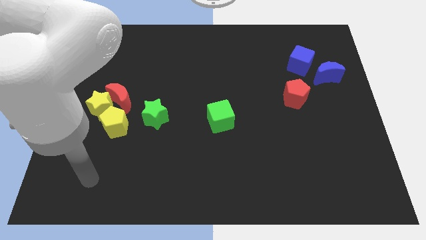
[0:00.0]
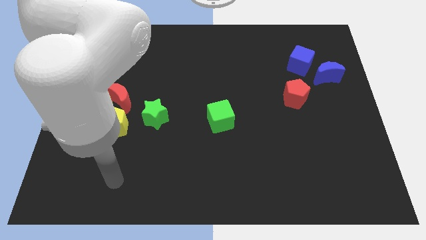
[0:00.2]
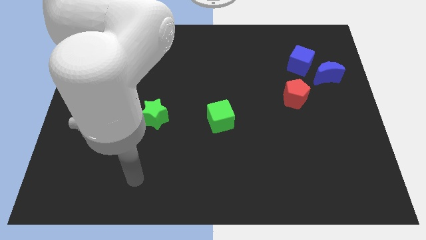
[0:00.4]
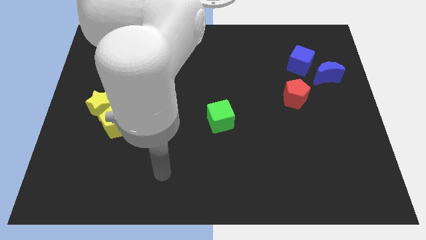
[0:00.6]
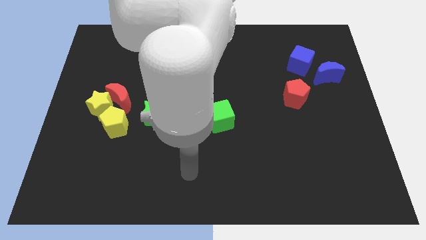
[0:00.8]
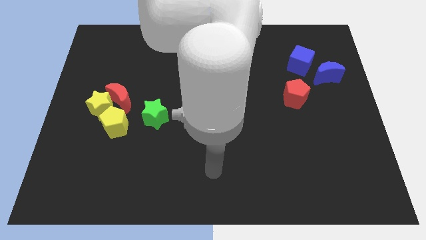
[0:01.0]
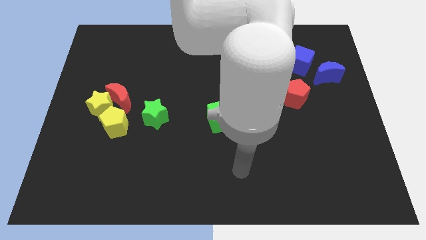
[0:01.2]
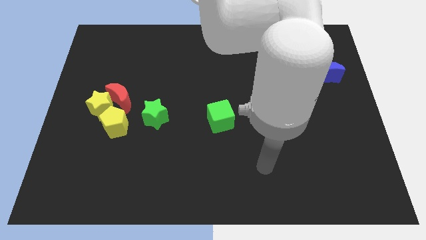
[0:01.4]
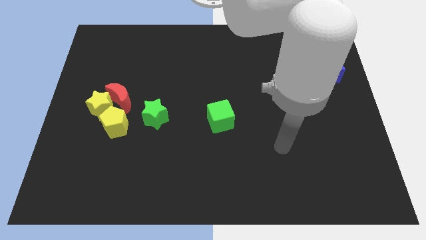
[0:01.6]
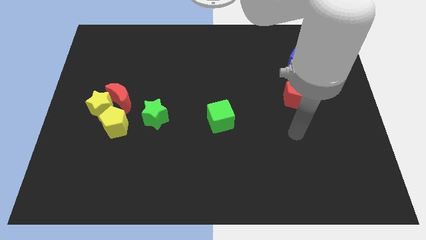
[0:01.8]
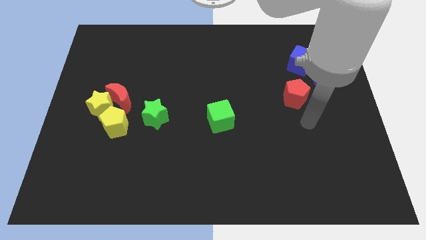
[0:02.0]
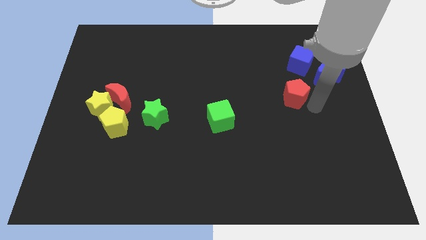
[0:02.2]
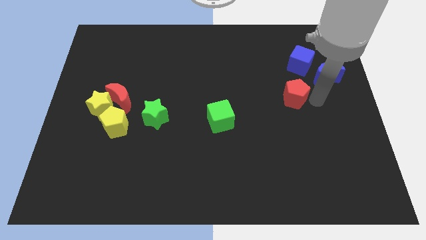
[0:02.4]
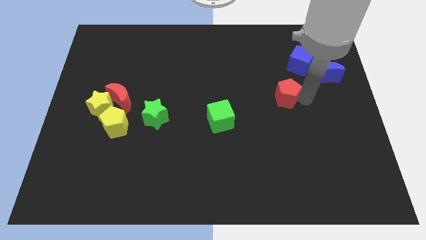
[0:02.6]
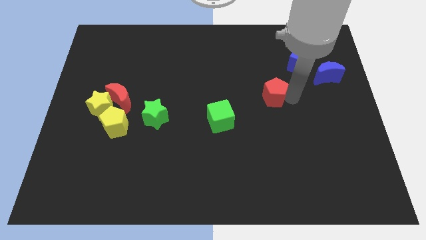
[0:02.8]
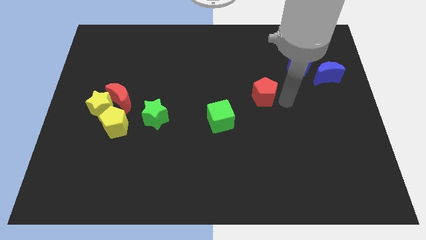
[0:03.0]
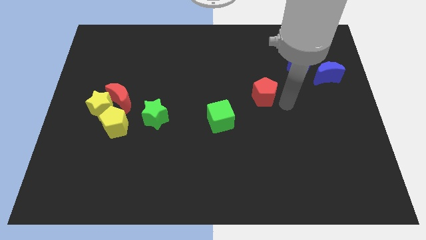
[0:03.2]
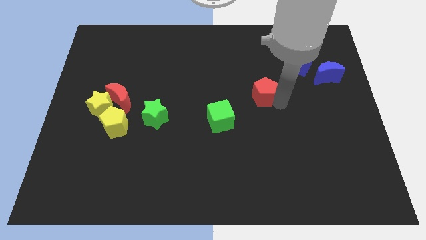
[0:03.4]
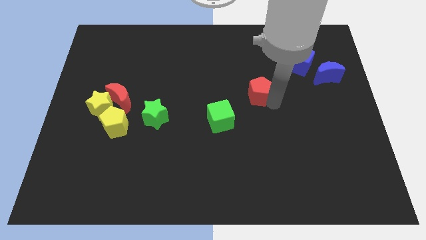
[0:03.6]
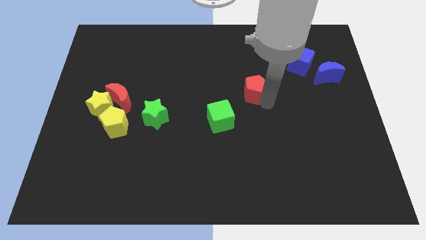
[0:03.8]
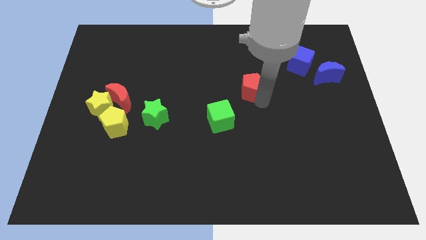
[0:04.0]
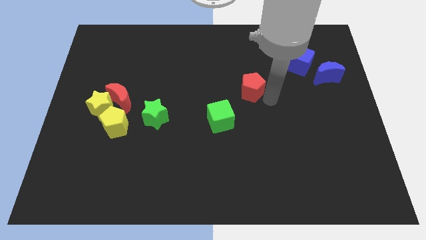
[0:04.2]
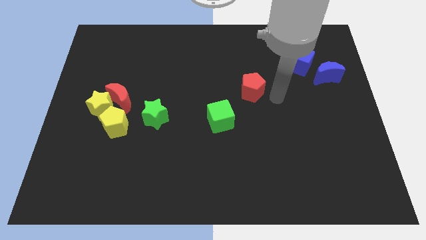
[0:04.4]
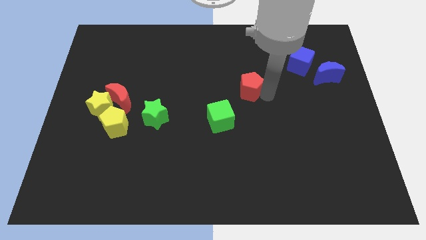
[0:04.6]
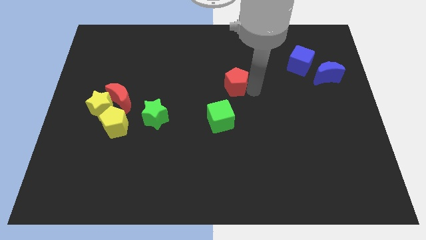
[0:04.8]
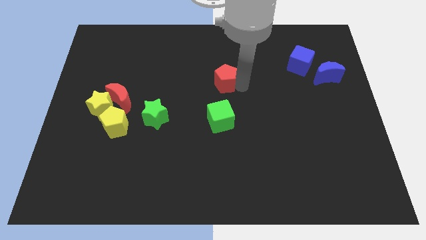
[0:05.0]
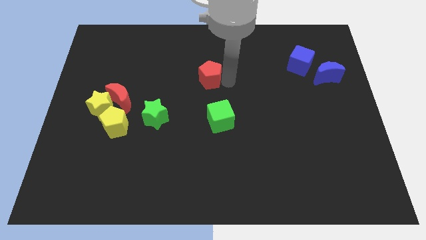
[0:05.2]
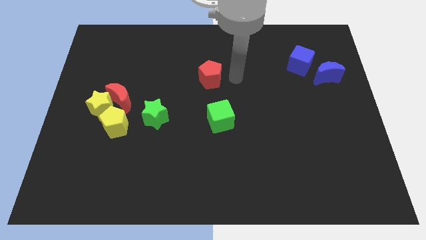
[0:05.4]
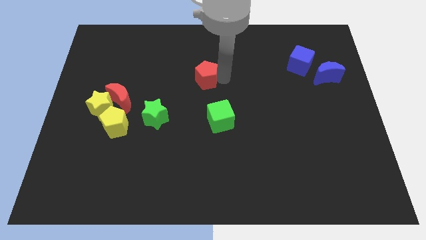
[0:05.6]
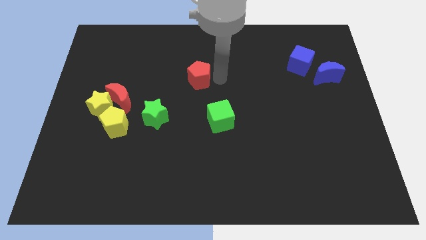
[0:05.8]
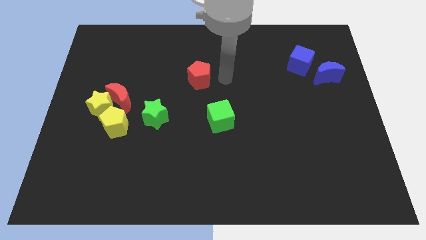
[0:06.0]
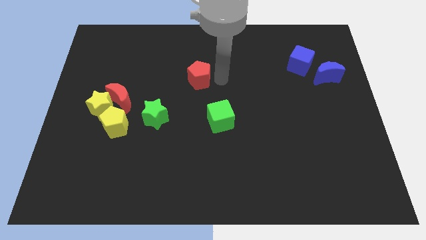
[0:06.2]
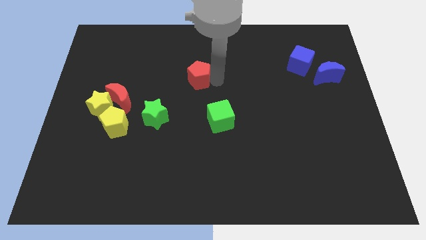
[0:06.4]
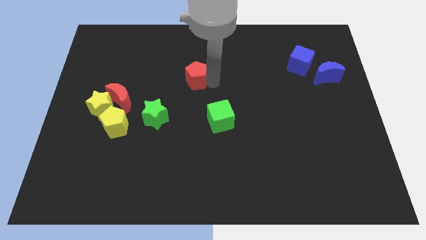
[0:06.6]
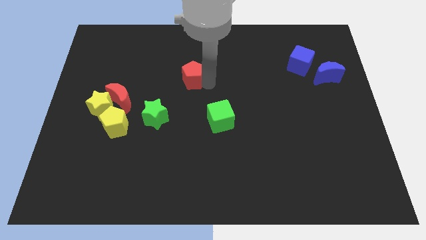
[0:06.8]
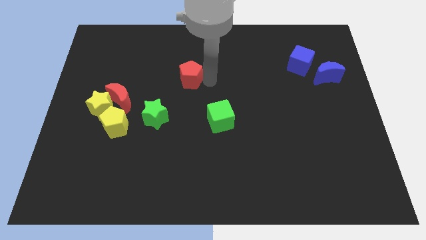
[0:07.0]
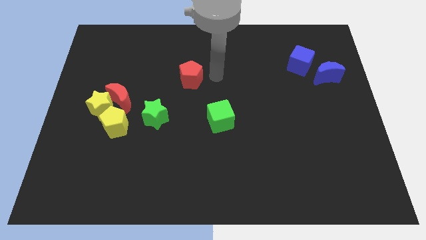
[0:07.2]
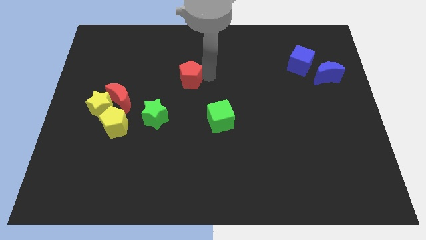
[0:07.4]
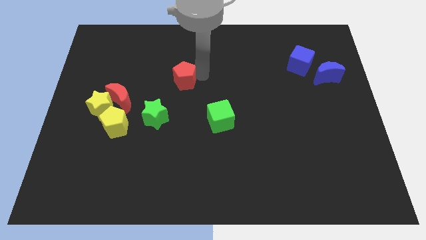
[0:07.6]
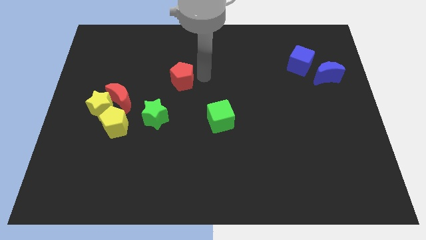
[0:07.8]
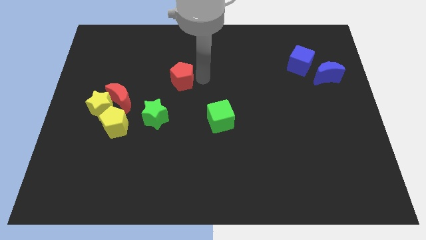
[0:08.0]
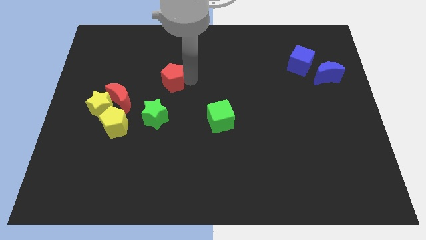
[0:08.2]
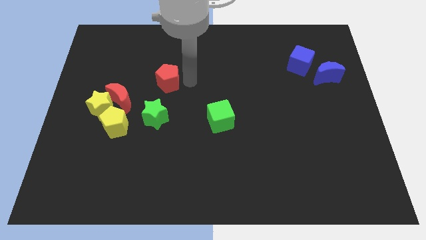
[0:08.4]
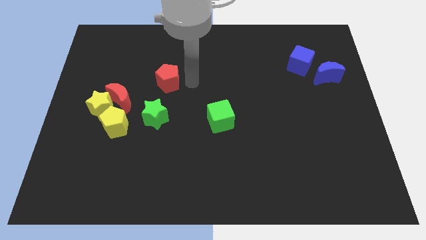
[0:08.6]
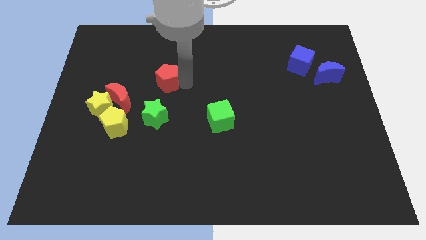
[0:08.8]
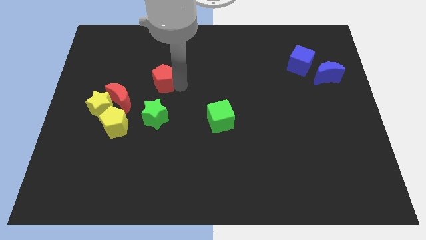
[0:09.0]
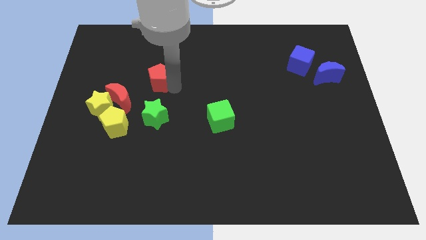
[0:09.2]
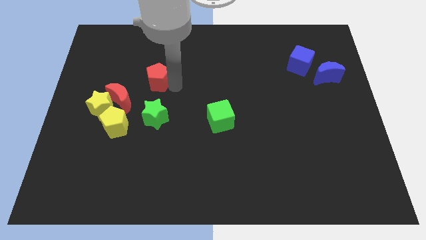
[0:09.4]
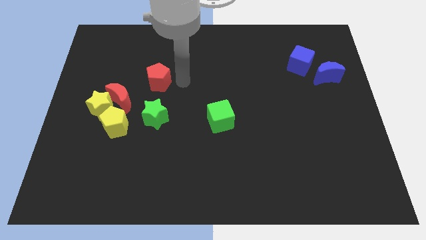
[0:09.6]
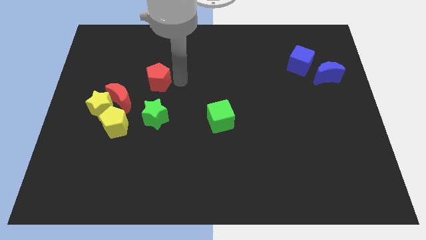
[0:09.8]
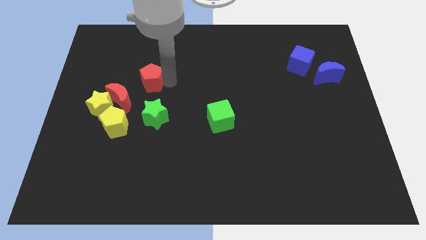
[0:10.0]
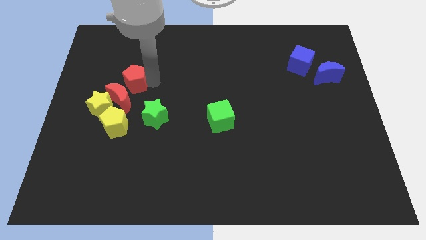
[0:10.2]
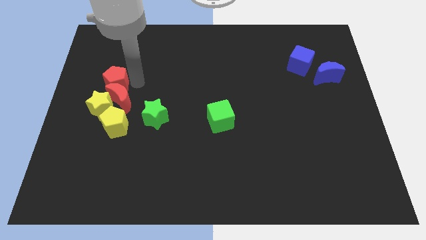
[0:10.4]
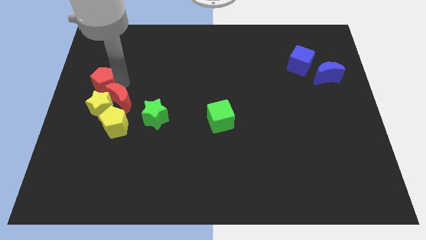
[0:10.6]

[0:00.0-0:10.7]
put the red pentagon to the left side
